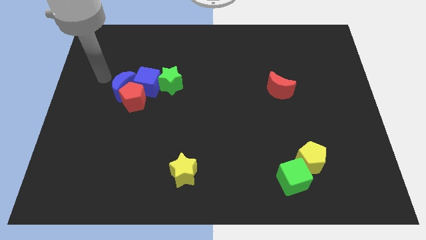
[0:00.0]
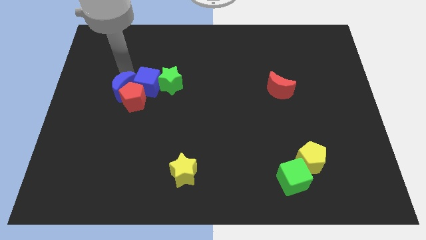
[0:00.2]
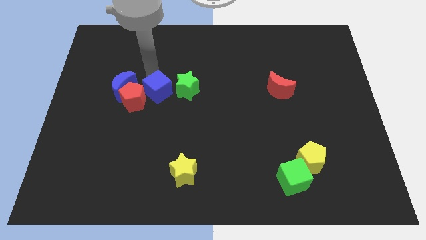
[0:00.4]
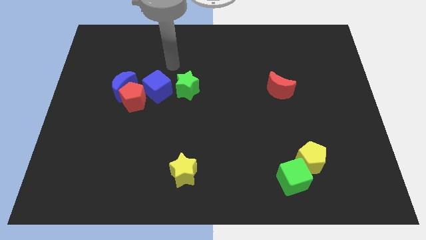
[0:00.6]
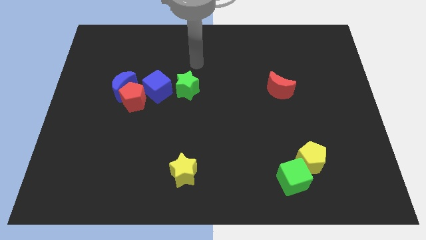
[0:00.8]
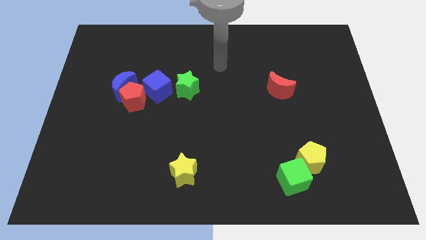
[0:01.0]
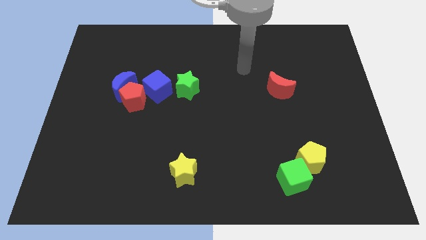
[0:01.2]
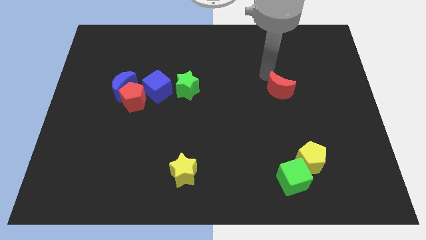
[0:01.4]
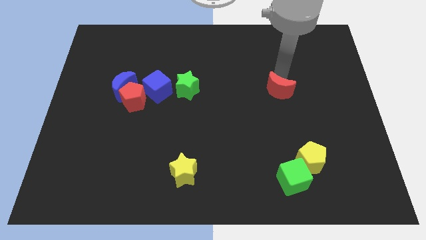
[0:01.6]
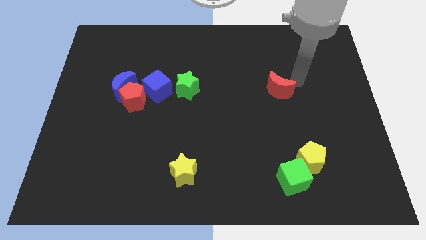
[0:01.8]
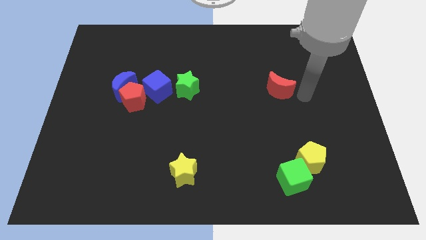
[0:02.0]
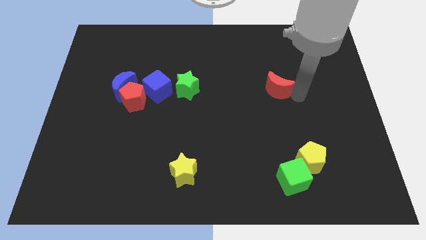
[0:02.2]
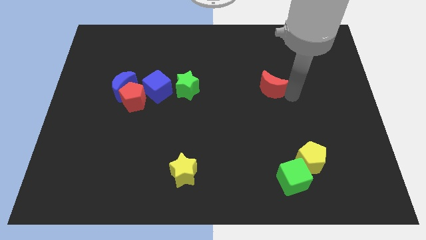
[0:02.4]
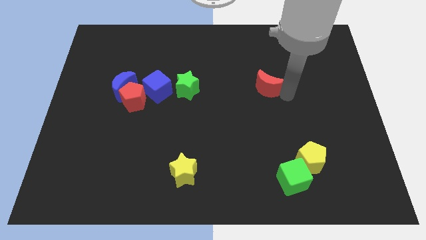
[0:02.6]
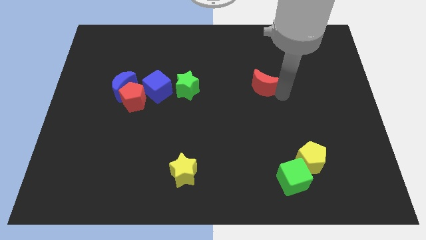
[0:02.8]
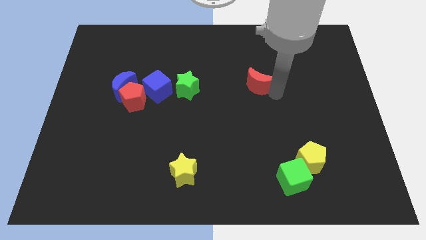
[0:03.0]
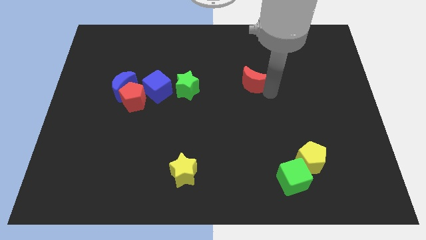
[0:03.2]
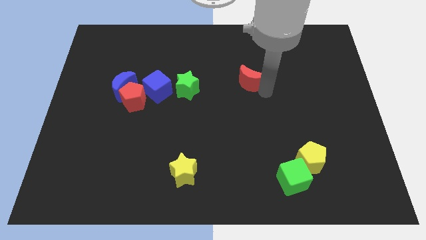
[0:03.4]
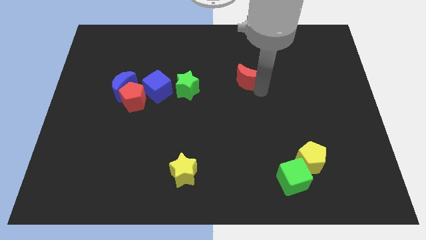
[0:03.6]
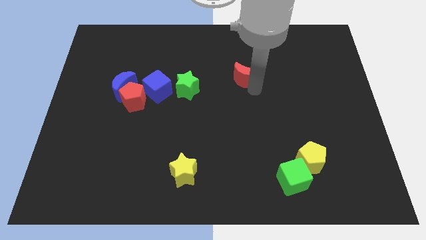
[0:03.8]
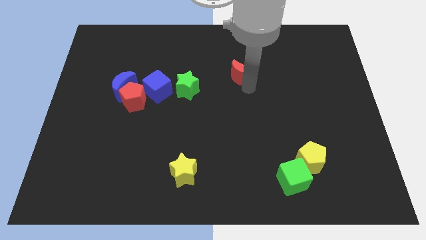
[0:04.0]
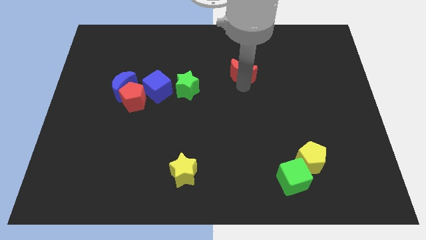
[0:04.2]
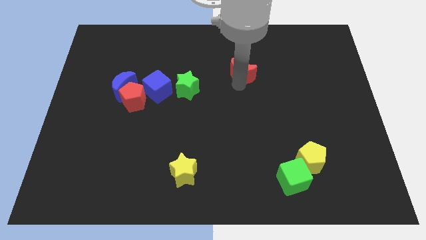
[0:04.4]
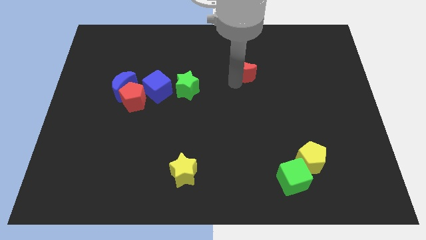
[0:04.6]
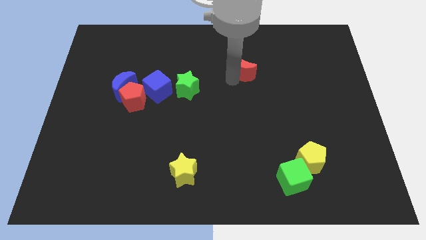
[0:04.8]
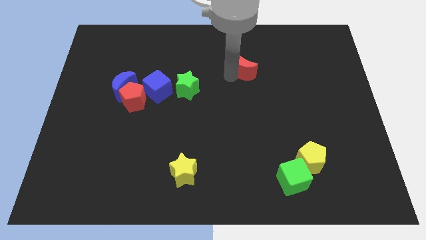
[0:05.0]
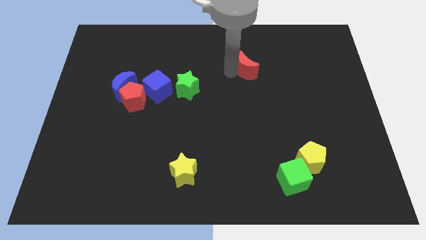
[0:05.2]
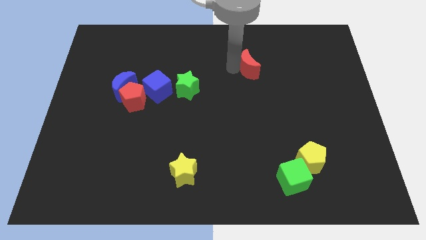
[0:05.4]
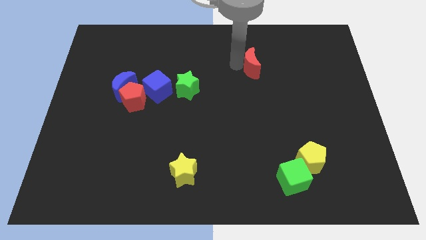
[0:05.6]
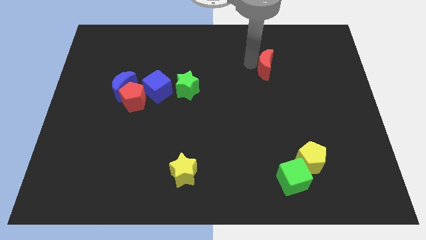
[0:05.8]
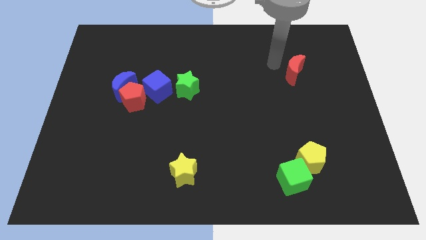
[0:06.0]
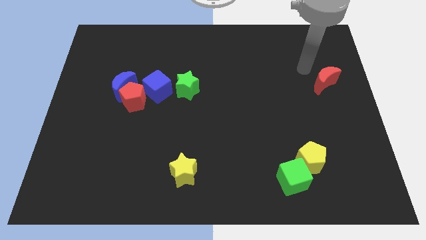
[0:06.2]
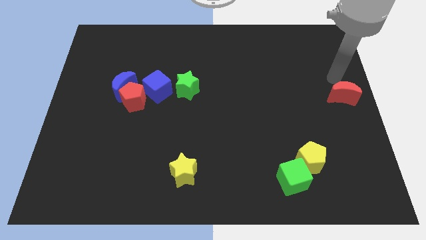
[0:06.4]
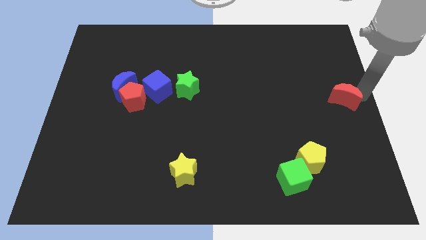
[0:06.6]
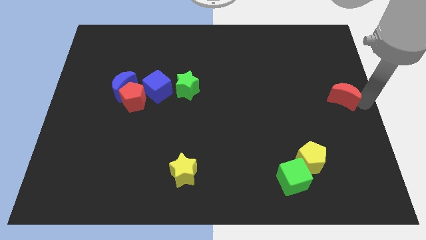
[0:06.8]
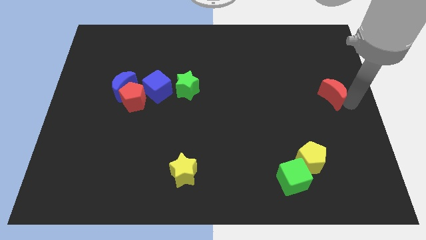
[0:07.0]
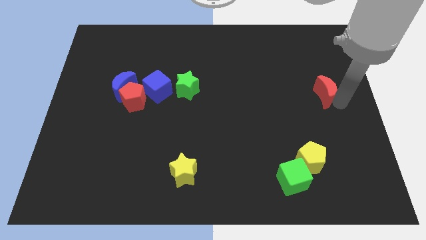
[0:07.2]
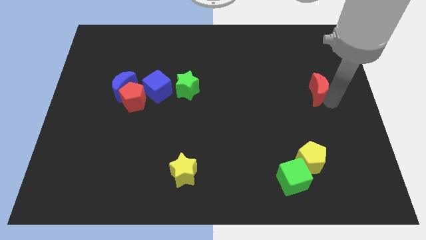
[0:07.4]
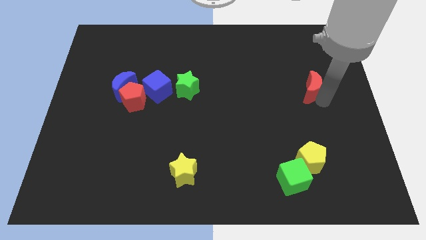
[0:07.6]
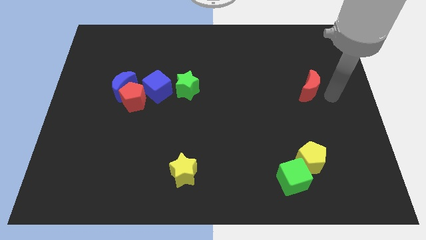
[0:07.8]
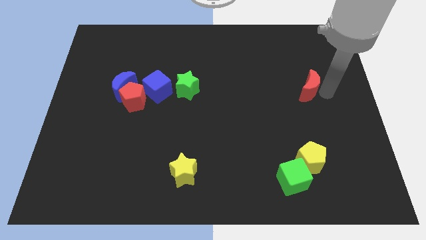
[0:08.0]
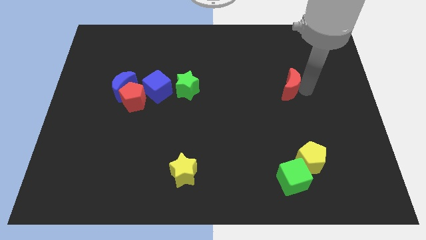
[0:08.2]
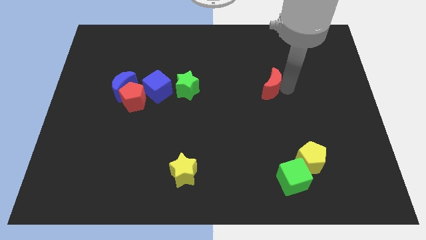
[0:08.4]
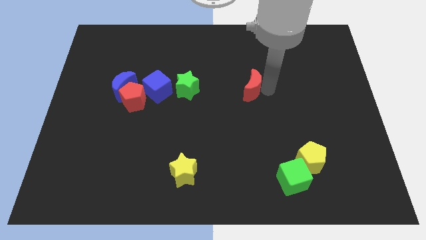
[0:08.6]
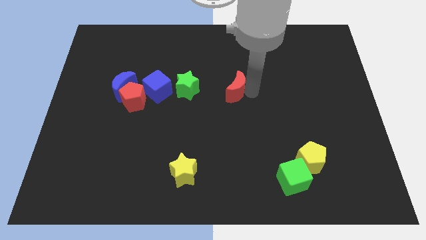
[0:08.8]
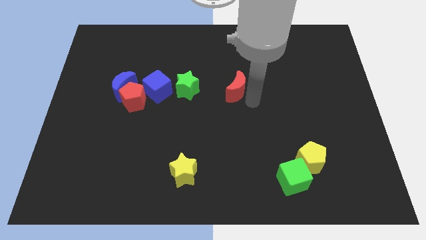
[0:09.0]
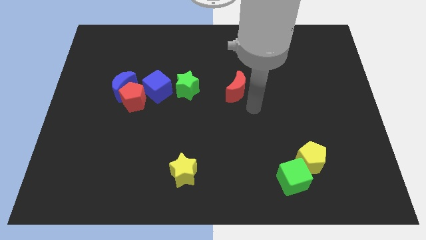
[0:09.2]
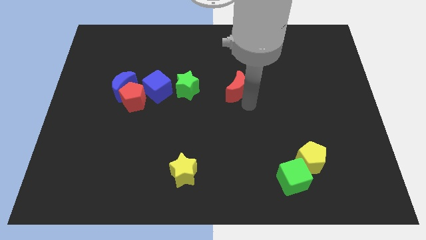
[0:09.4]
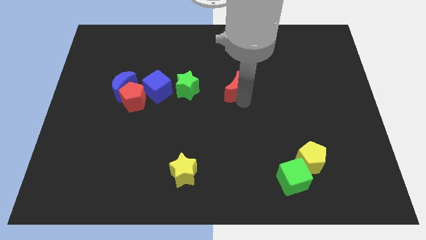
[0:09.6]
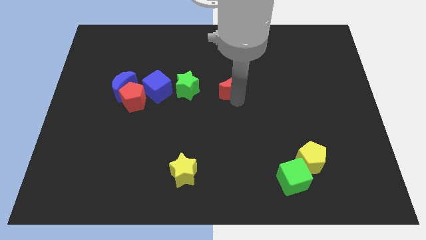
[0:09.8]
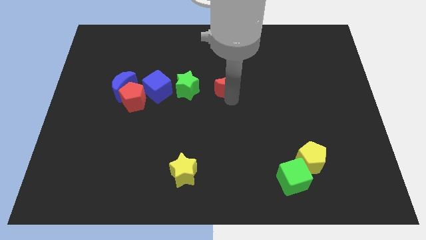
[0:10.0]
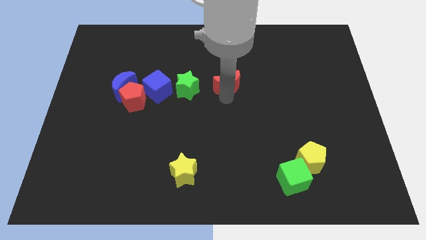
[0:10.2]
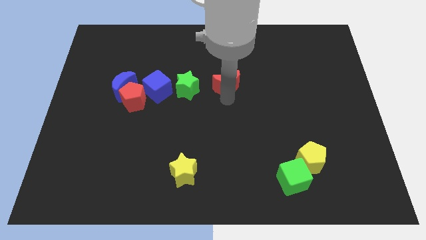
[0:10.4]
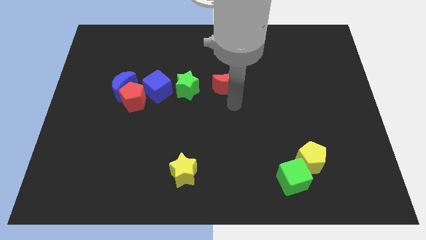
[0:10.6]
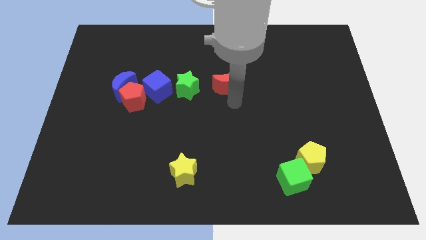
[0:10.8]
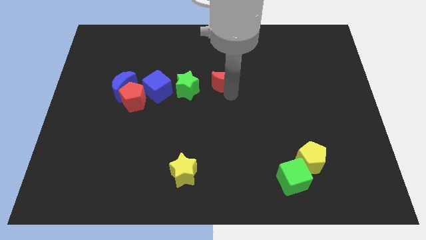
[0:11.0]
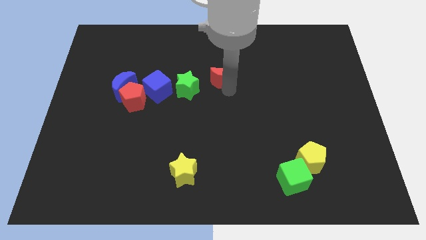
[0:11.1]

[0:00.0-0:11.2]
push the red moon to the top right side of the green star
